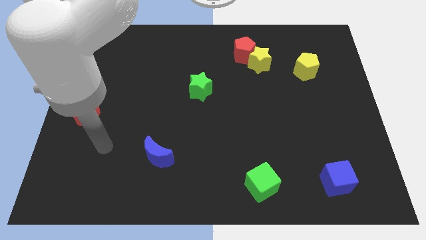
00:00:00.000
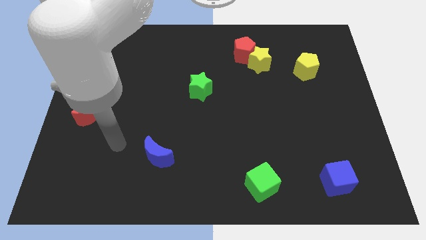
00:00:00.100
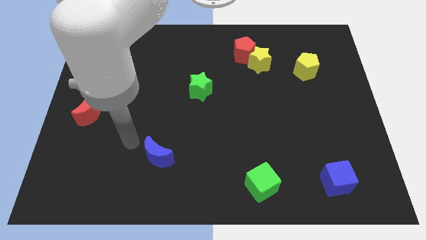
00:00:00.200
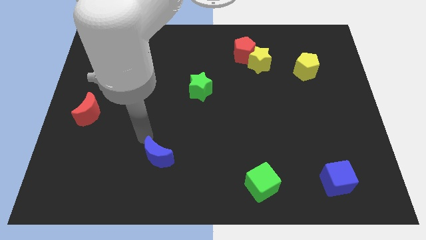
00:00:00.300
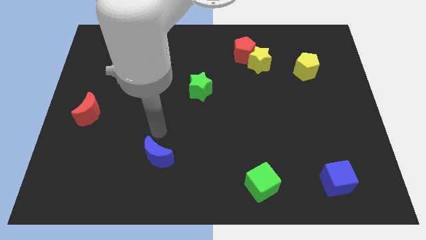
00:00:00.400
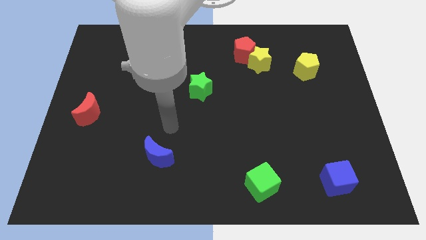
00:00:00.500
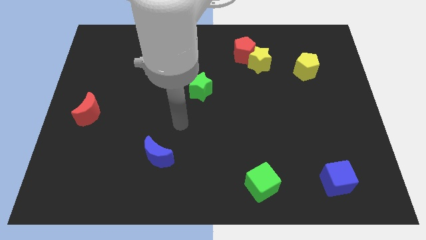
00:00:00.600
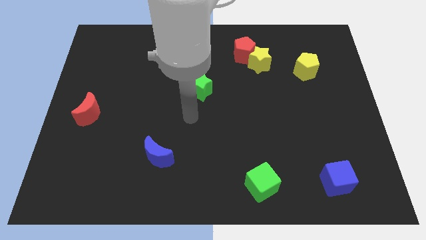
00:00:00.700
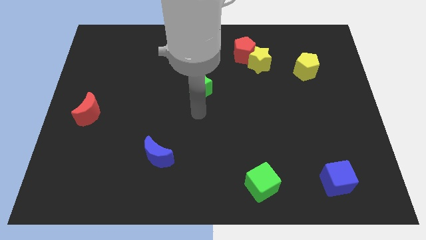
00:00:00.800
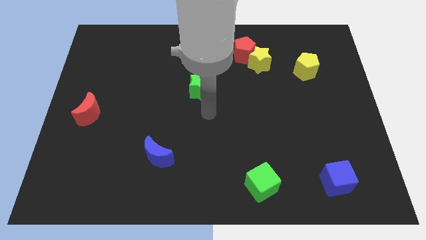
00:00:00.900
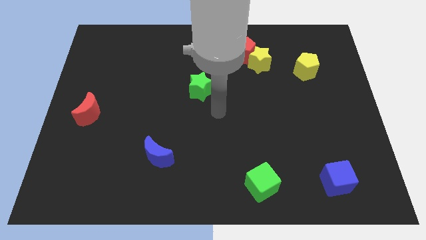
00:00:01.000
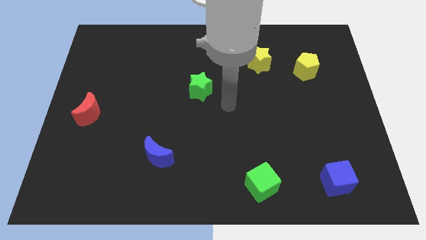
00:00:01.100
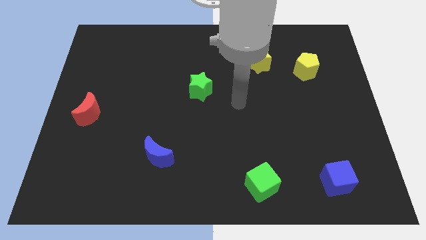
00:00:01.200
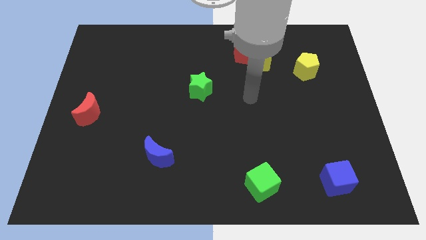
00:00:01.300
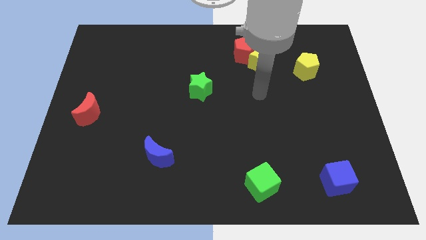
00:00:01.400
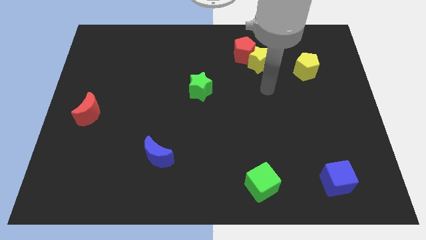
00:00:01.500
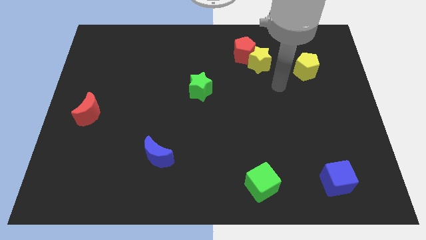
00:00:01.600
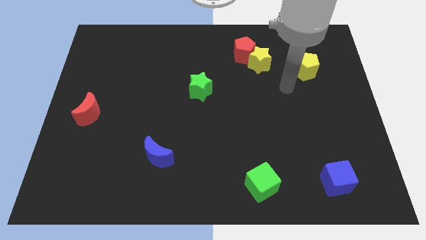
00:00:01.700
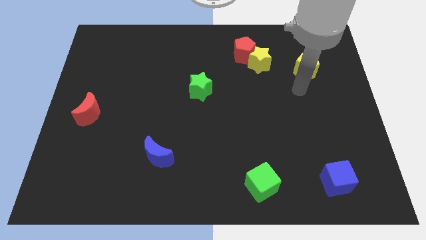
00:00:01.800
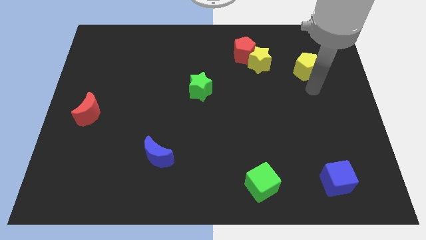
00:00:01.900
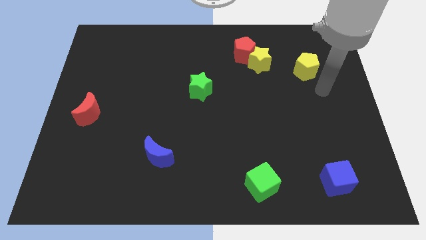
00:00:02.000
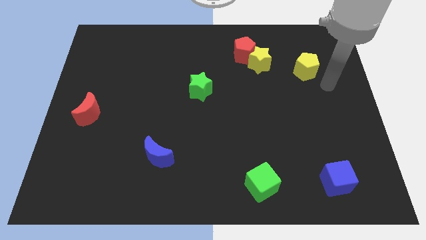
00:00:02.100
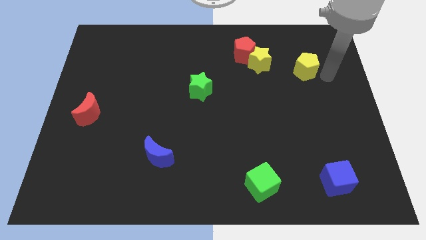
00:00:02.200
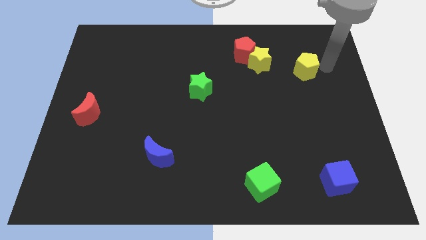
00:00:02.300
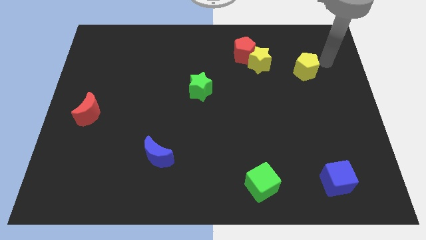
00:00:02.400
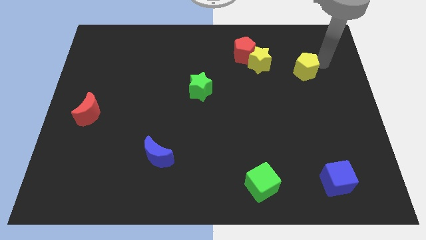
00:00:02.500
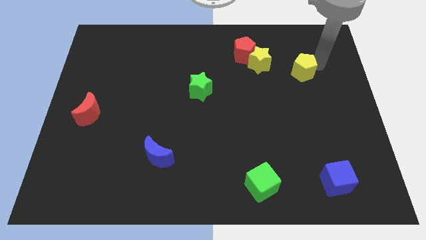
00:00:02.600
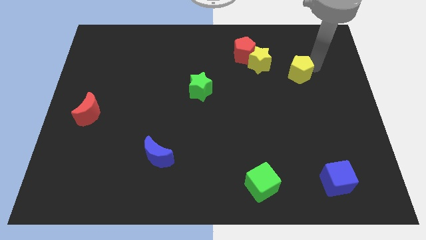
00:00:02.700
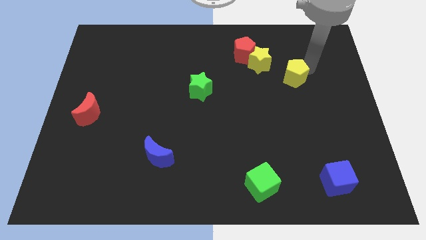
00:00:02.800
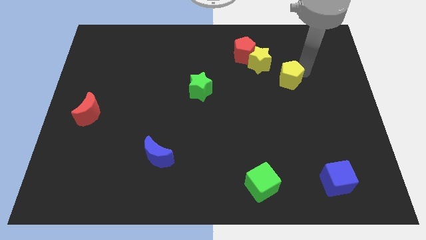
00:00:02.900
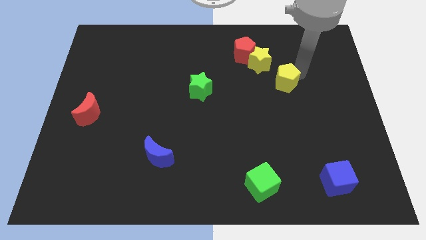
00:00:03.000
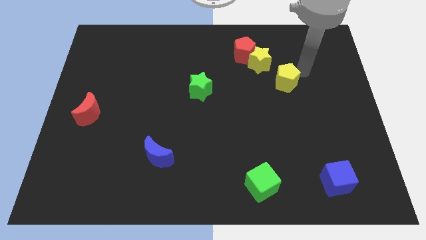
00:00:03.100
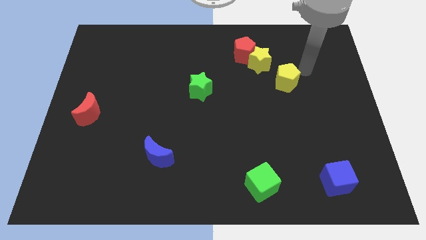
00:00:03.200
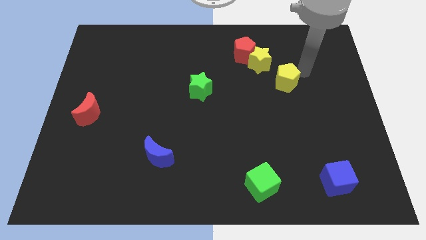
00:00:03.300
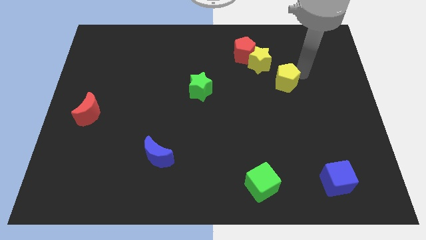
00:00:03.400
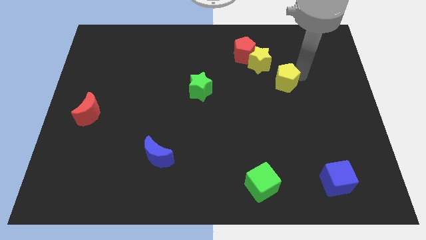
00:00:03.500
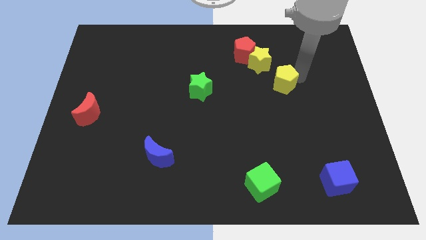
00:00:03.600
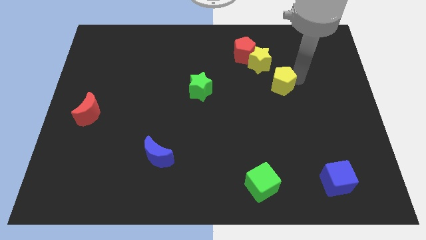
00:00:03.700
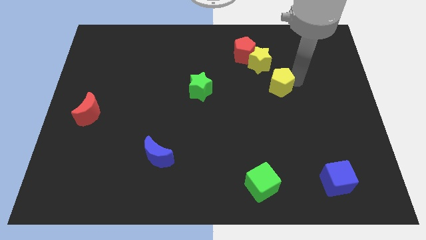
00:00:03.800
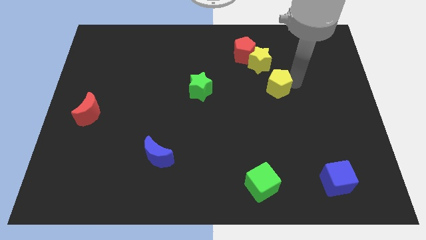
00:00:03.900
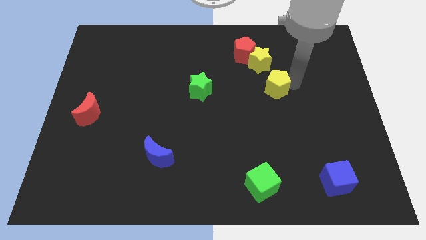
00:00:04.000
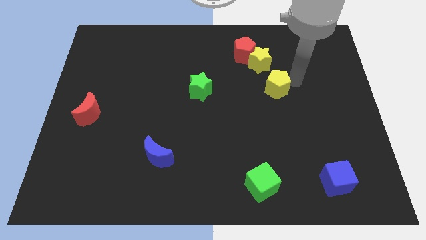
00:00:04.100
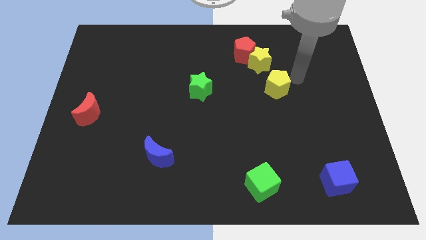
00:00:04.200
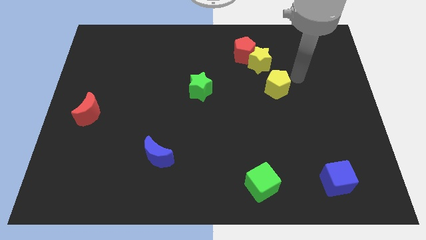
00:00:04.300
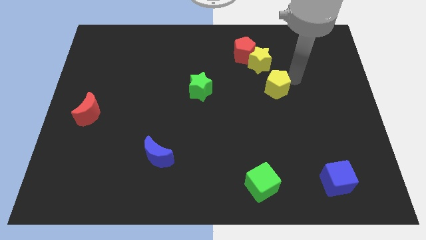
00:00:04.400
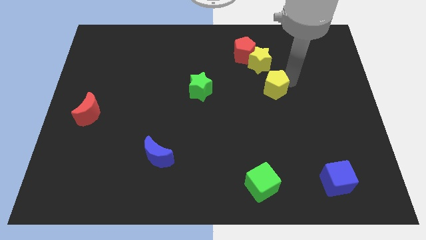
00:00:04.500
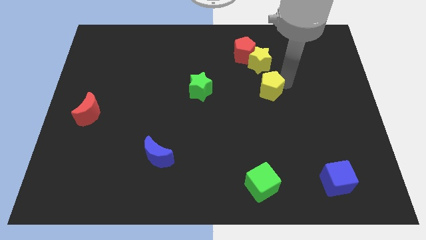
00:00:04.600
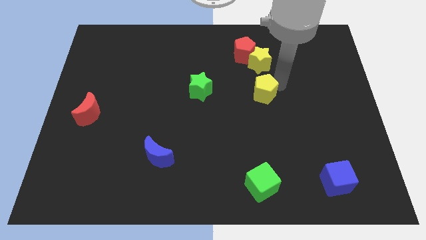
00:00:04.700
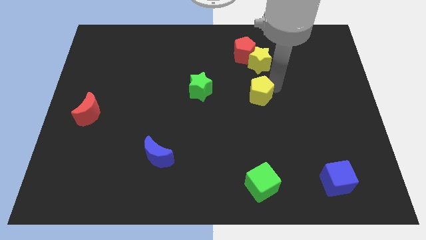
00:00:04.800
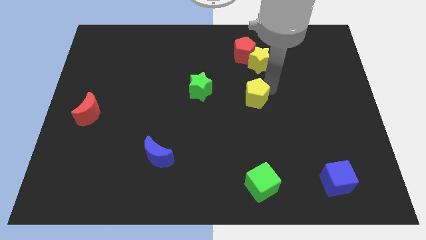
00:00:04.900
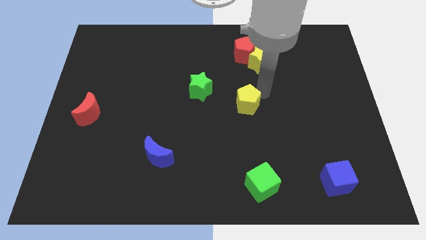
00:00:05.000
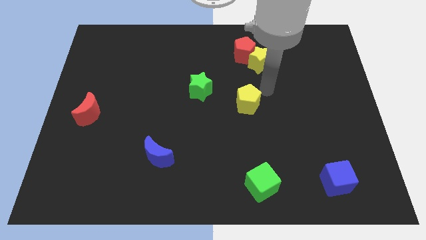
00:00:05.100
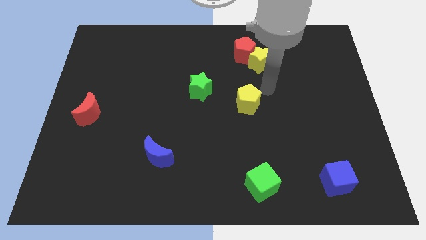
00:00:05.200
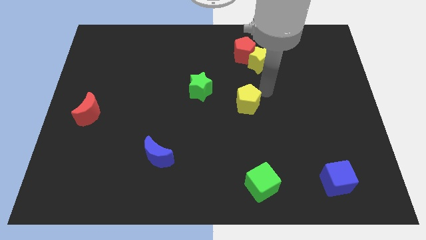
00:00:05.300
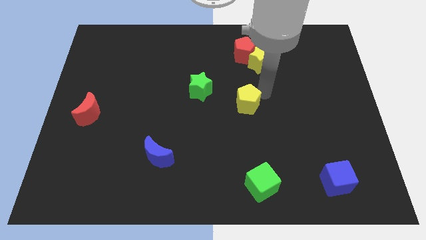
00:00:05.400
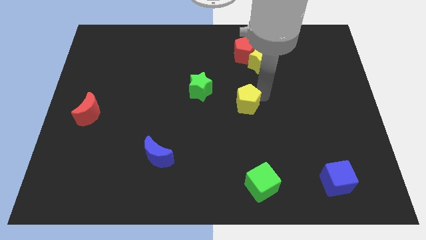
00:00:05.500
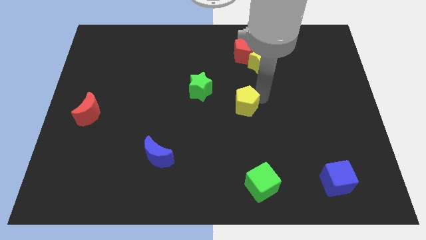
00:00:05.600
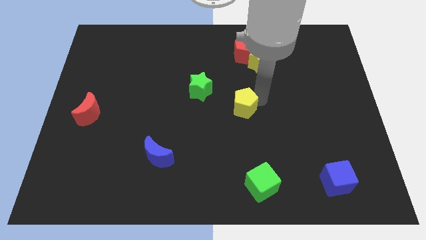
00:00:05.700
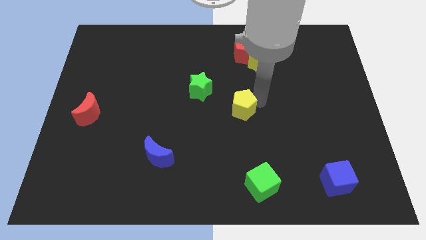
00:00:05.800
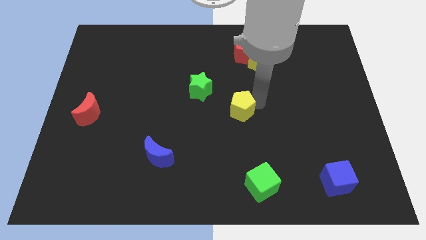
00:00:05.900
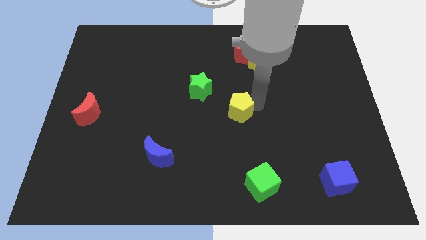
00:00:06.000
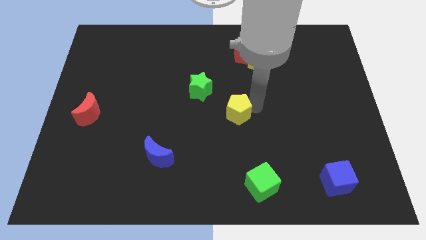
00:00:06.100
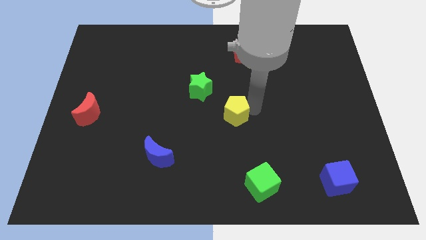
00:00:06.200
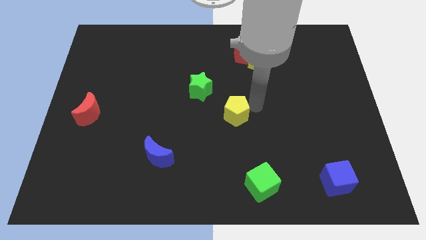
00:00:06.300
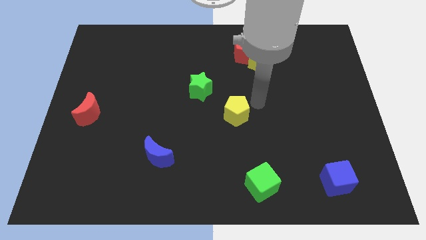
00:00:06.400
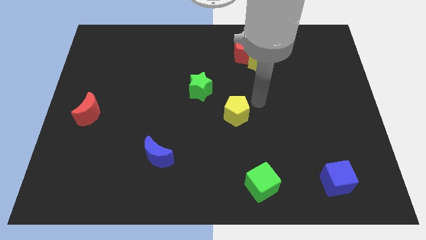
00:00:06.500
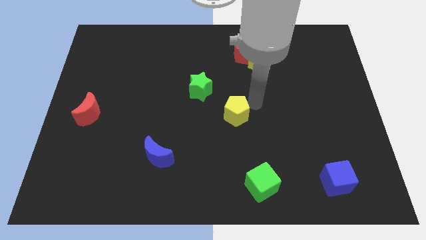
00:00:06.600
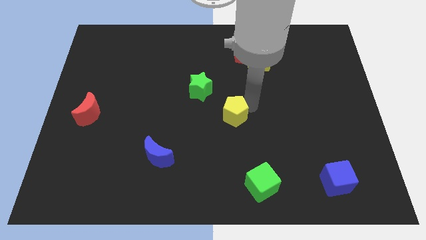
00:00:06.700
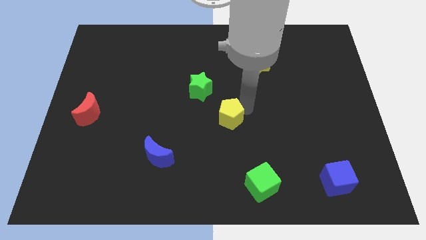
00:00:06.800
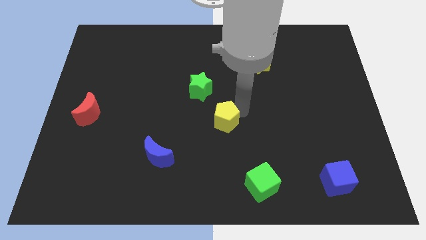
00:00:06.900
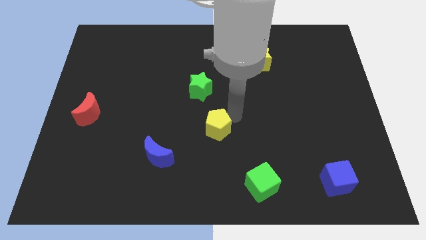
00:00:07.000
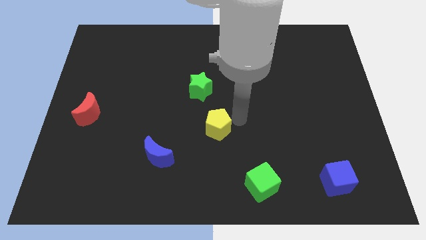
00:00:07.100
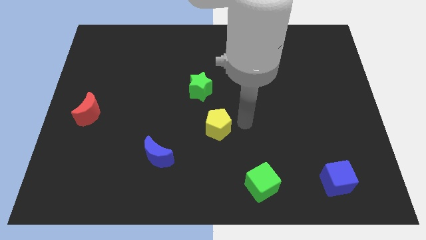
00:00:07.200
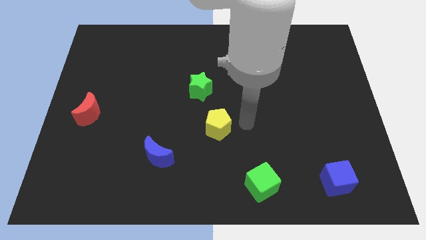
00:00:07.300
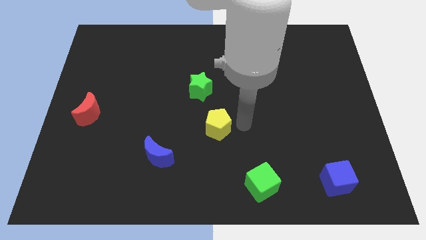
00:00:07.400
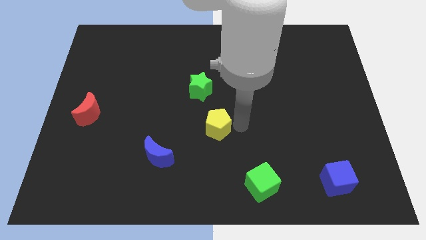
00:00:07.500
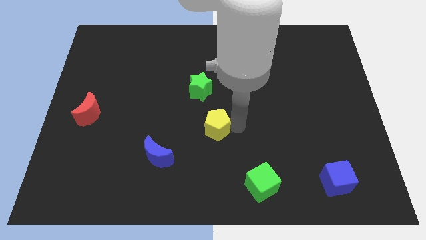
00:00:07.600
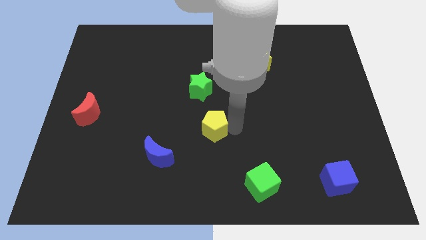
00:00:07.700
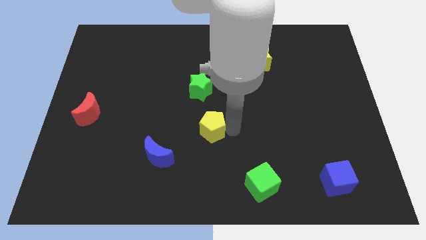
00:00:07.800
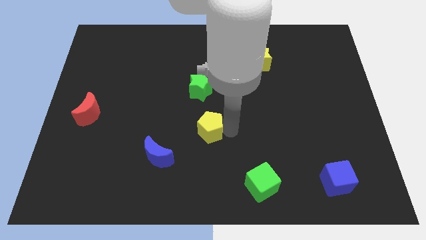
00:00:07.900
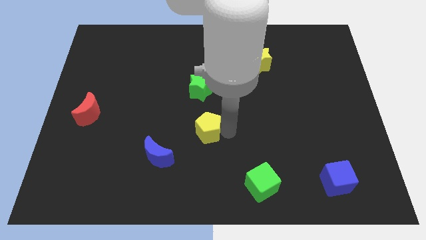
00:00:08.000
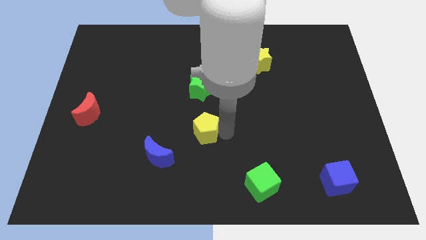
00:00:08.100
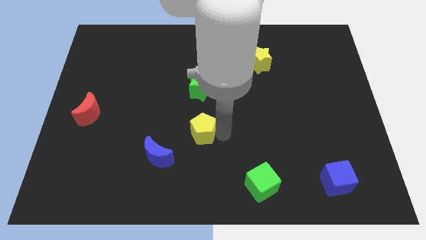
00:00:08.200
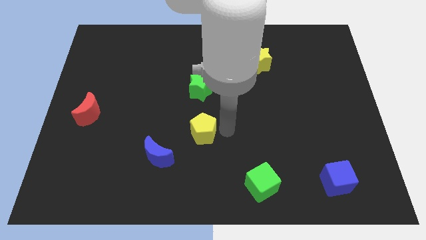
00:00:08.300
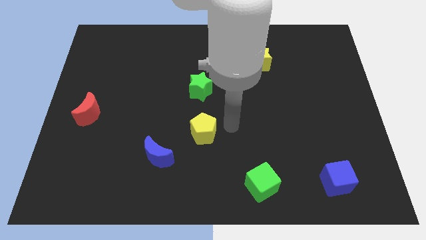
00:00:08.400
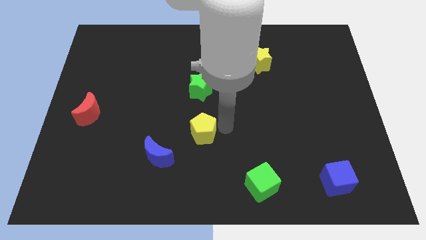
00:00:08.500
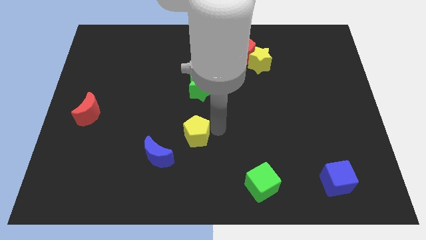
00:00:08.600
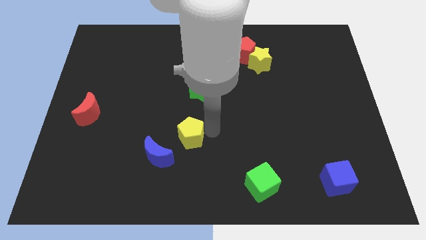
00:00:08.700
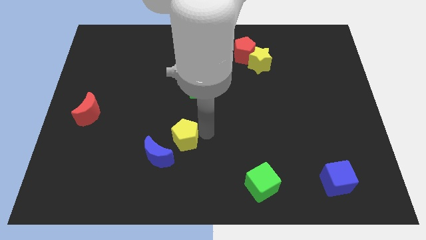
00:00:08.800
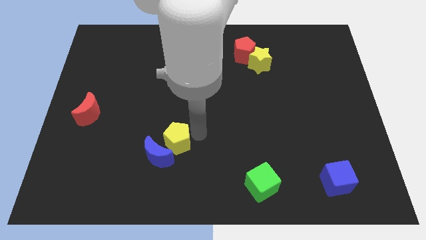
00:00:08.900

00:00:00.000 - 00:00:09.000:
move the yellow pentagon to the blue moon
